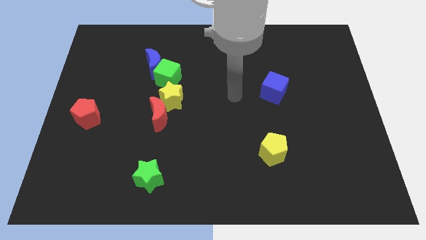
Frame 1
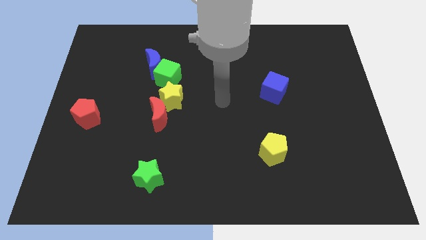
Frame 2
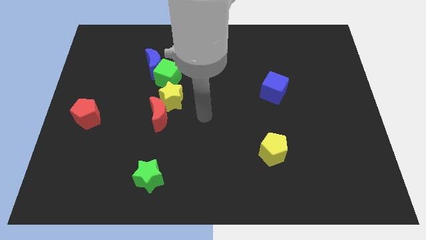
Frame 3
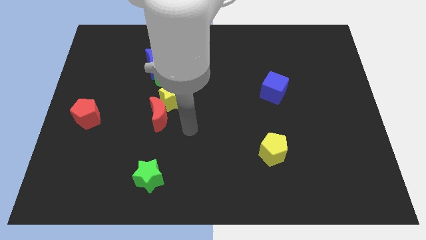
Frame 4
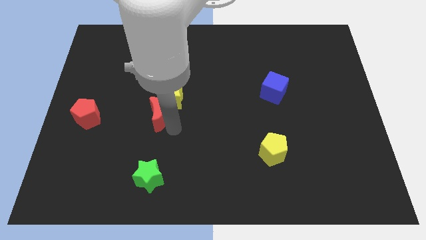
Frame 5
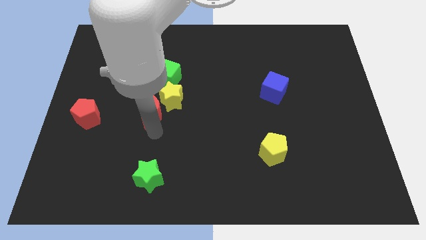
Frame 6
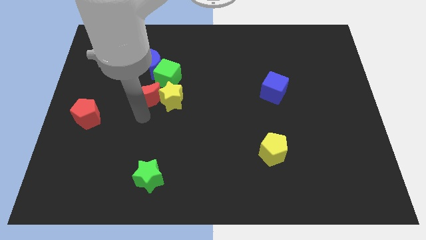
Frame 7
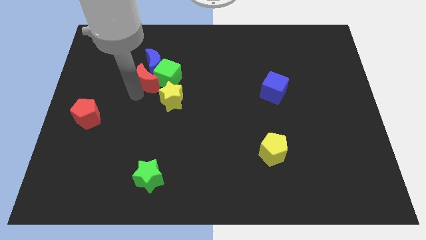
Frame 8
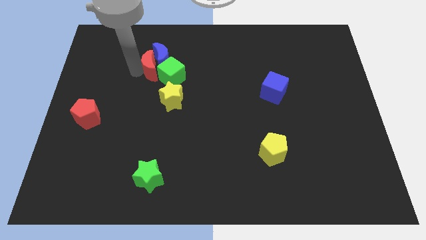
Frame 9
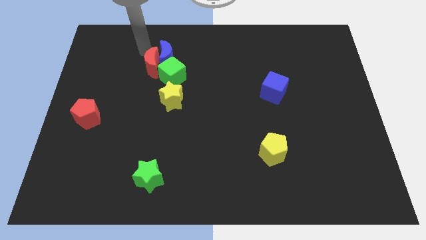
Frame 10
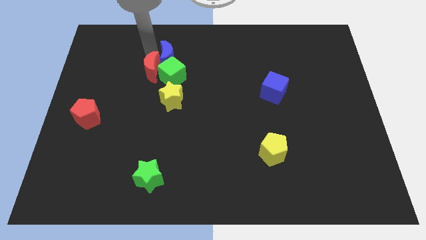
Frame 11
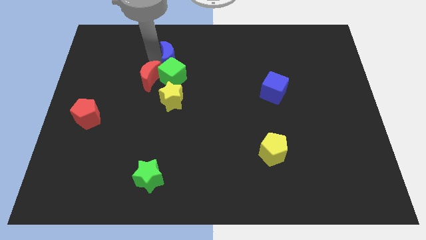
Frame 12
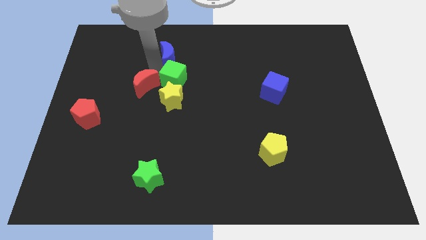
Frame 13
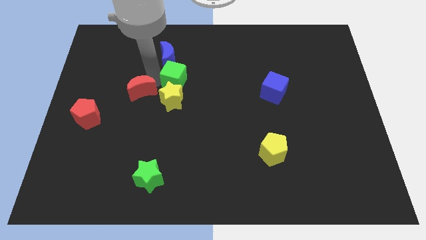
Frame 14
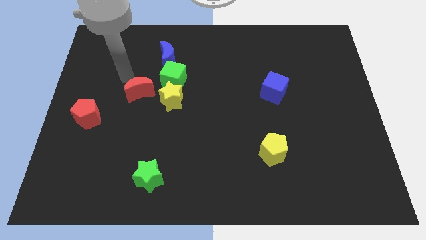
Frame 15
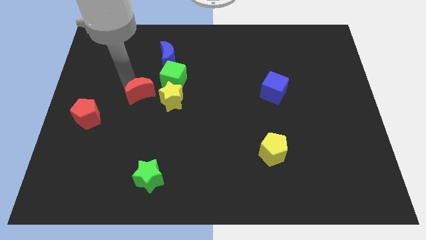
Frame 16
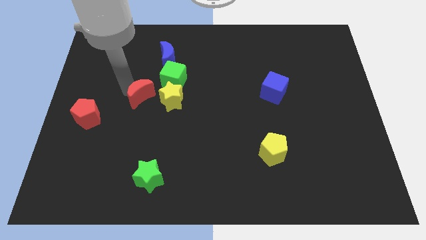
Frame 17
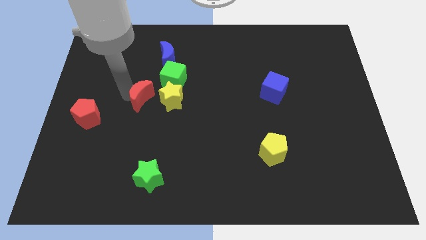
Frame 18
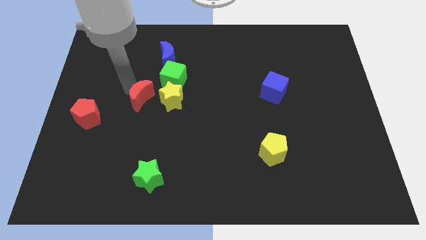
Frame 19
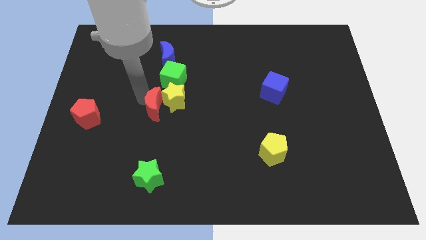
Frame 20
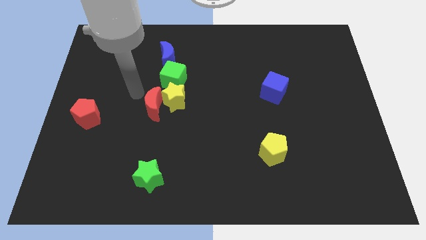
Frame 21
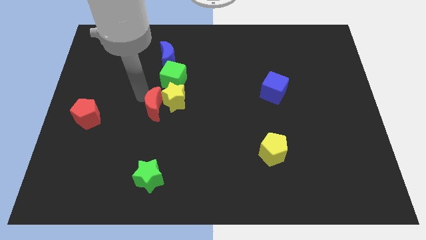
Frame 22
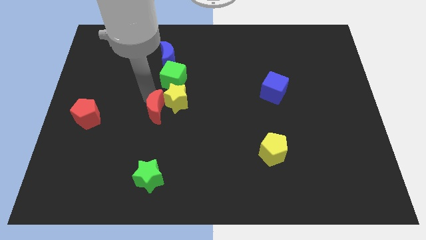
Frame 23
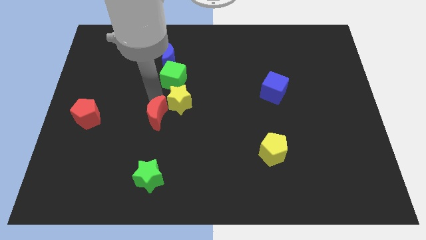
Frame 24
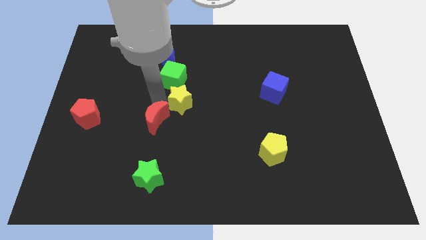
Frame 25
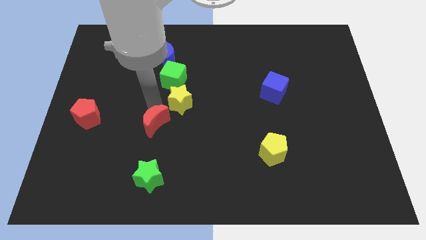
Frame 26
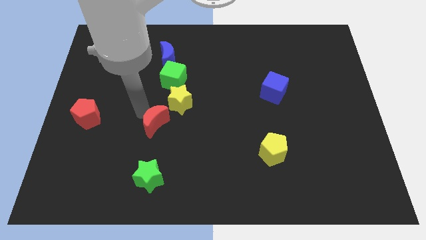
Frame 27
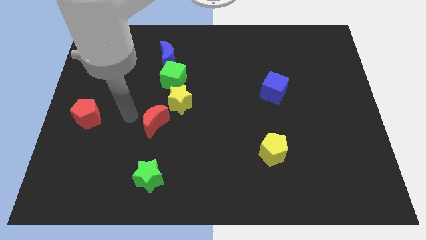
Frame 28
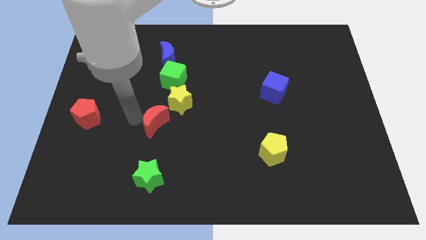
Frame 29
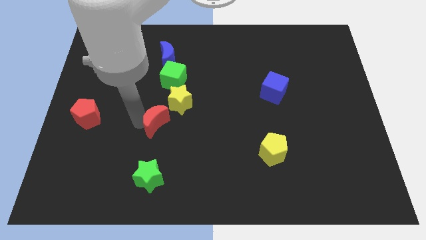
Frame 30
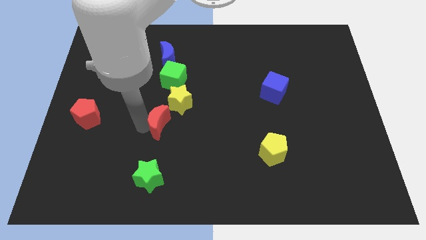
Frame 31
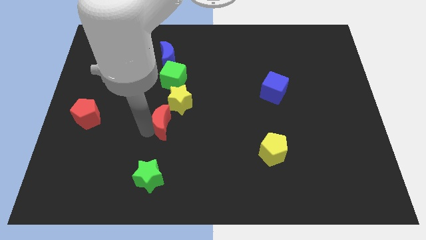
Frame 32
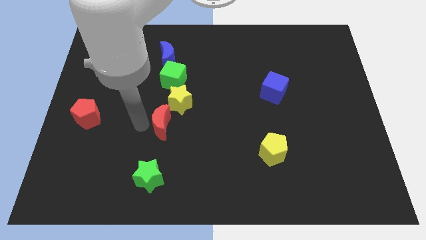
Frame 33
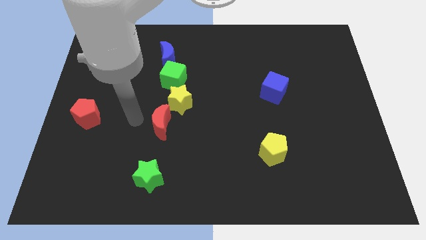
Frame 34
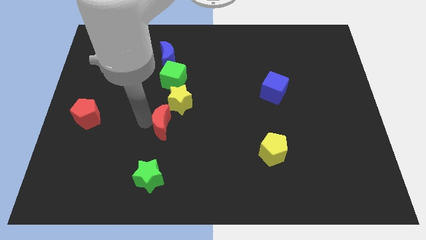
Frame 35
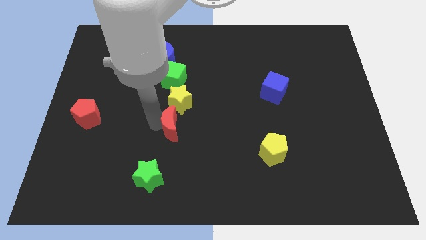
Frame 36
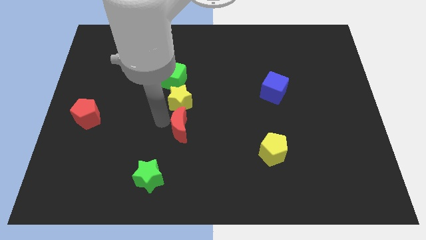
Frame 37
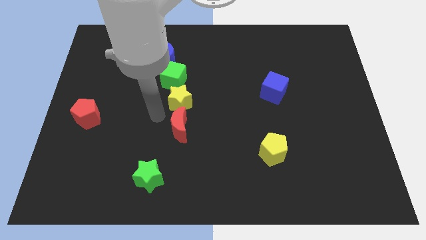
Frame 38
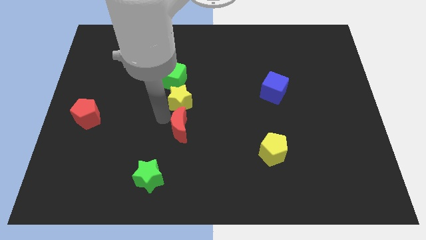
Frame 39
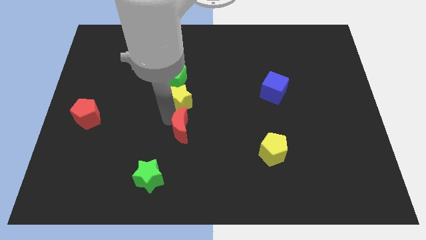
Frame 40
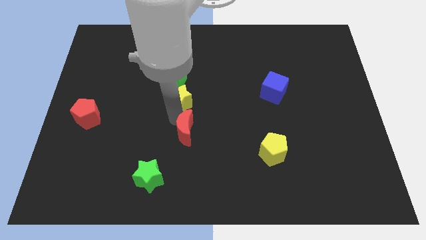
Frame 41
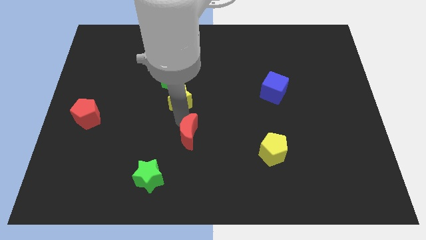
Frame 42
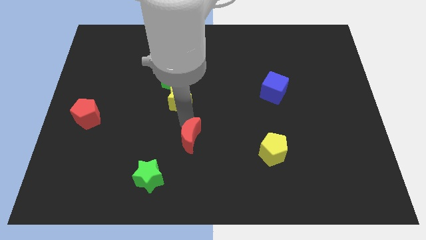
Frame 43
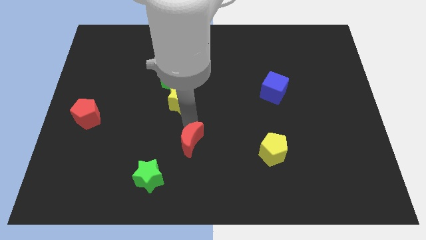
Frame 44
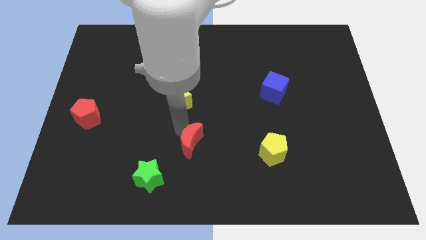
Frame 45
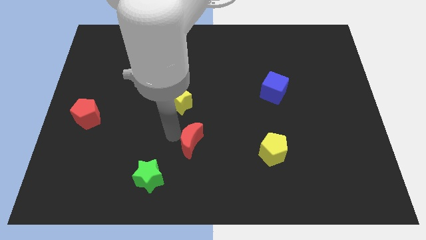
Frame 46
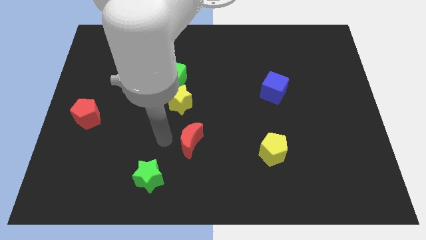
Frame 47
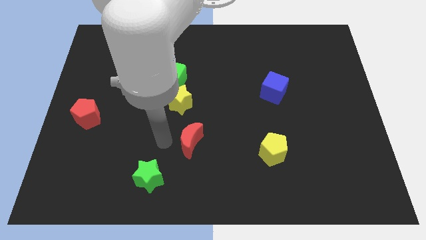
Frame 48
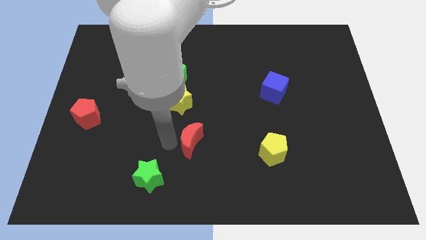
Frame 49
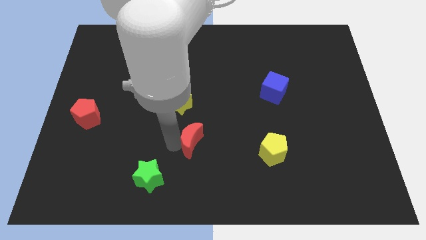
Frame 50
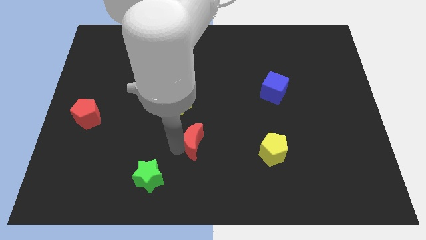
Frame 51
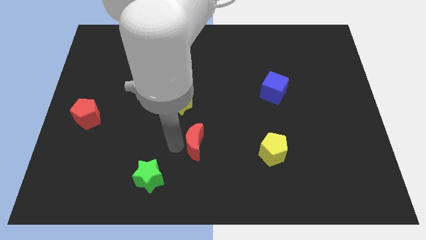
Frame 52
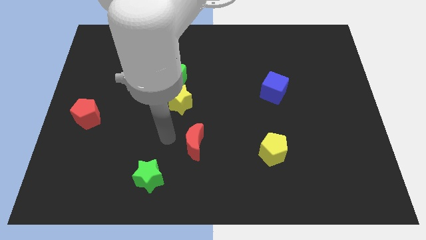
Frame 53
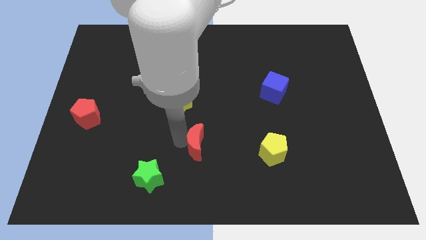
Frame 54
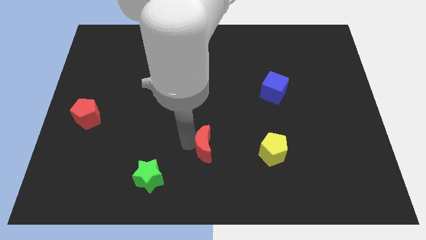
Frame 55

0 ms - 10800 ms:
move the red moon just left of the yellow pentagon

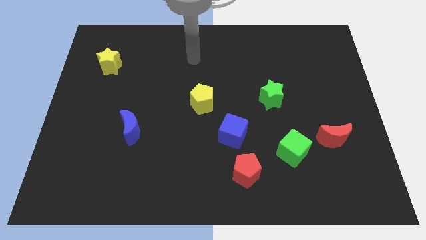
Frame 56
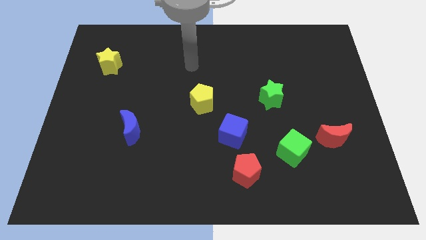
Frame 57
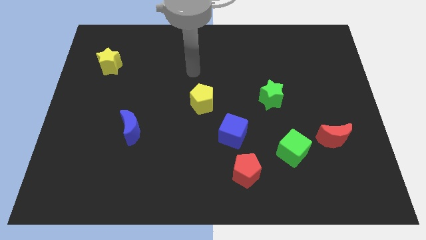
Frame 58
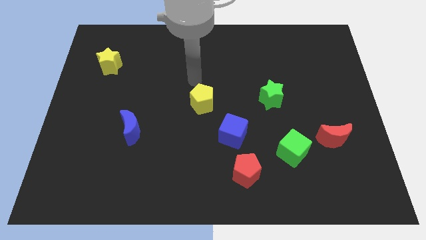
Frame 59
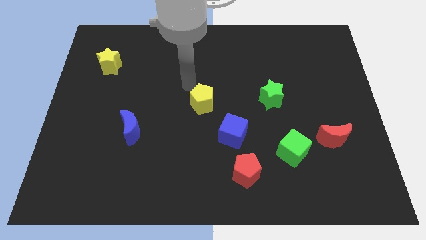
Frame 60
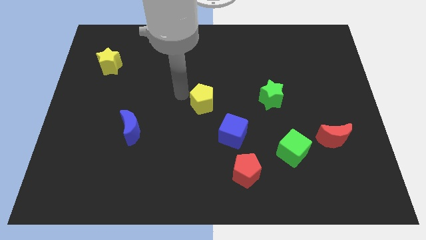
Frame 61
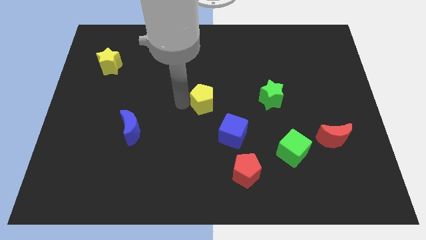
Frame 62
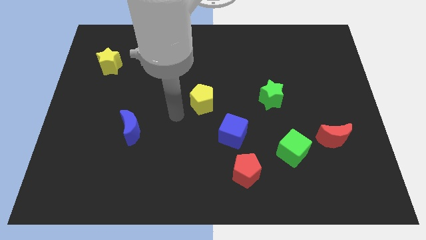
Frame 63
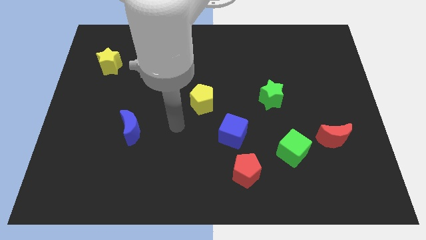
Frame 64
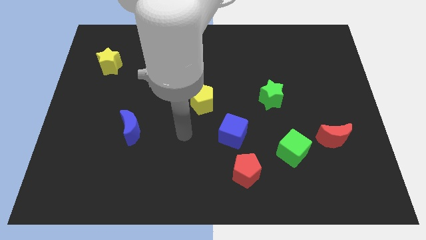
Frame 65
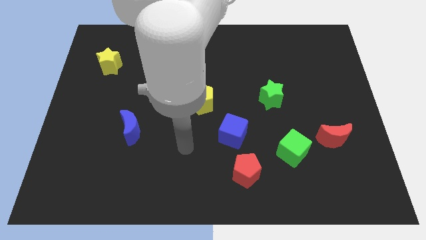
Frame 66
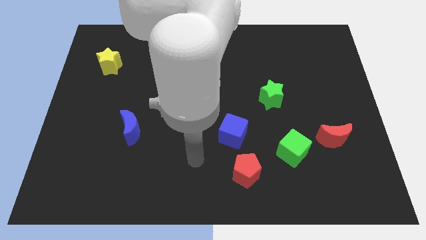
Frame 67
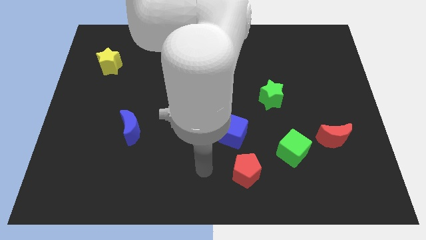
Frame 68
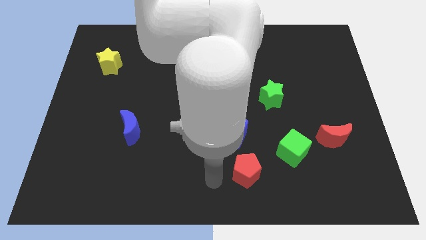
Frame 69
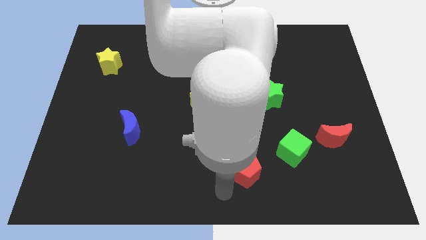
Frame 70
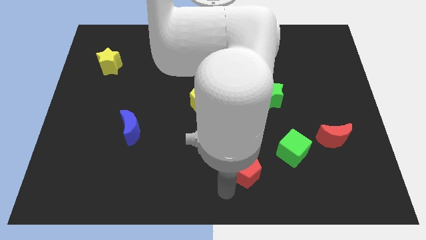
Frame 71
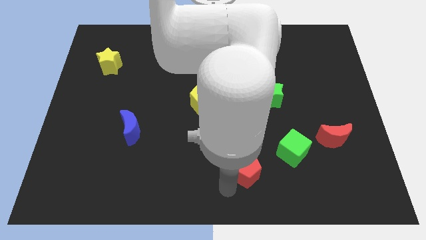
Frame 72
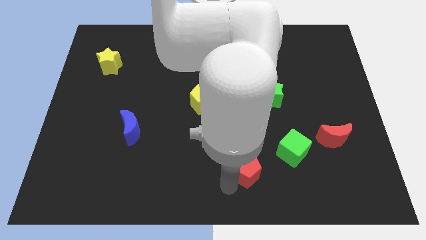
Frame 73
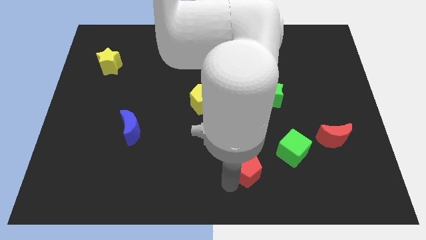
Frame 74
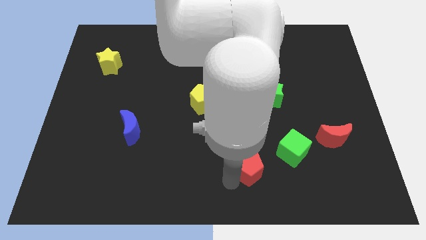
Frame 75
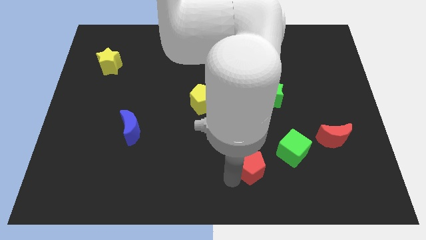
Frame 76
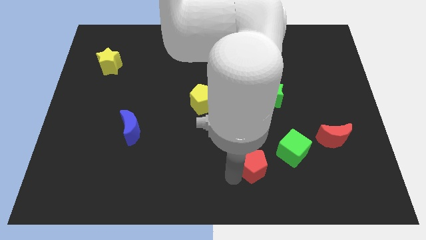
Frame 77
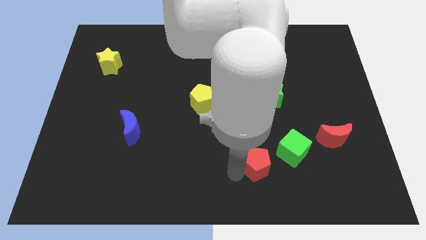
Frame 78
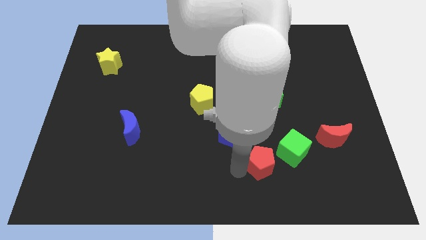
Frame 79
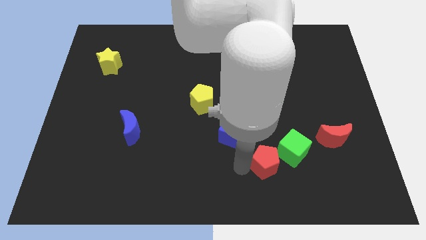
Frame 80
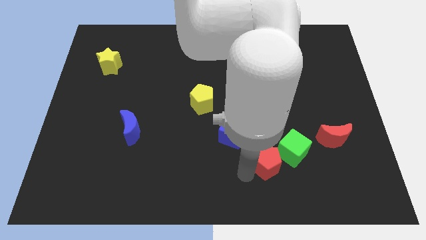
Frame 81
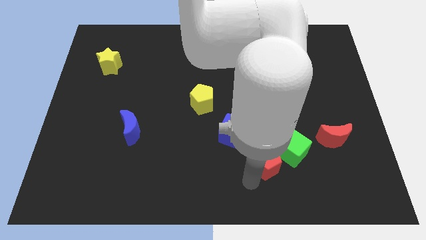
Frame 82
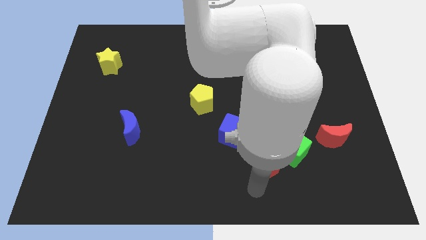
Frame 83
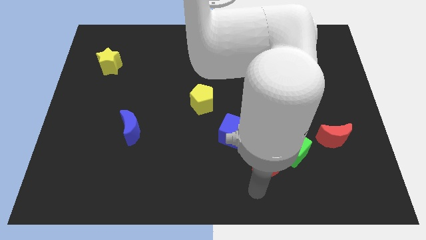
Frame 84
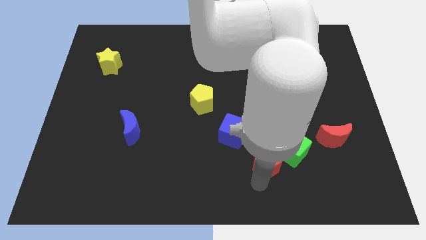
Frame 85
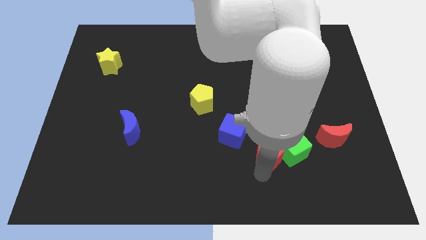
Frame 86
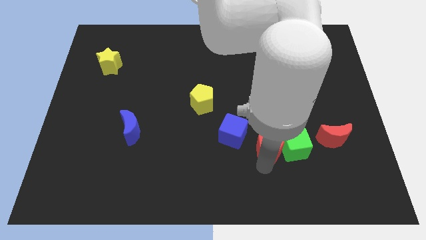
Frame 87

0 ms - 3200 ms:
slide the red pentagon below the green star
